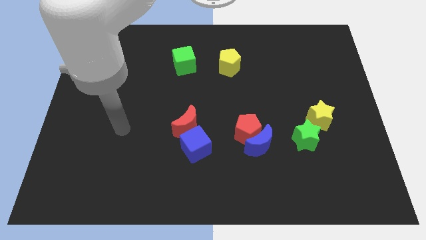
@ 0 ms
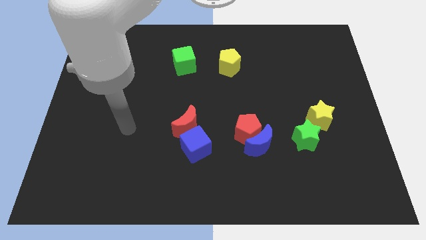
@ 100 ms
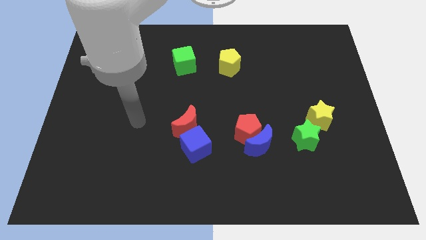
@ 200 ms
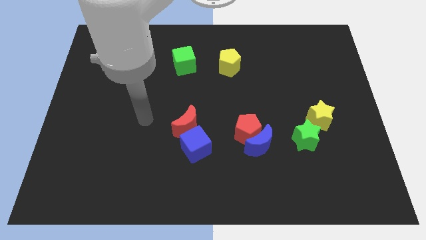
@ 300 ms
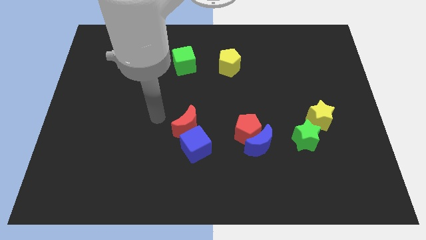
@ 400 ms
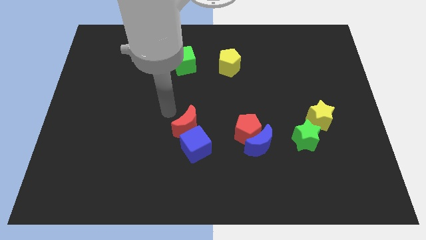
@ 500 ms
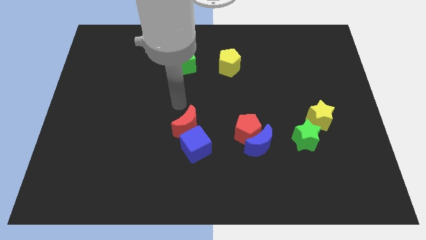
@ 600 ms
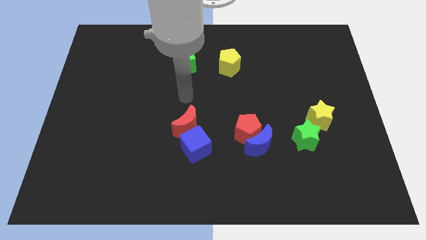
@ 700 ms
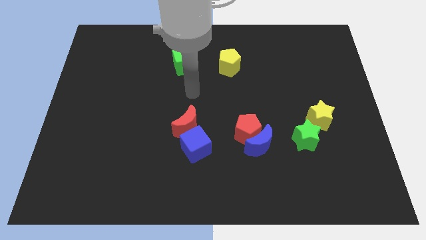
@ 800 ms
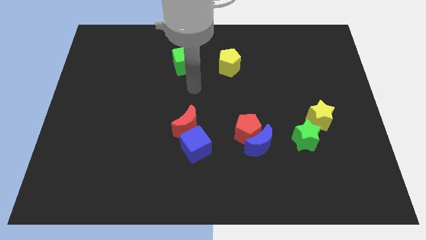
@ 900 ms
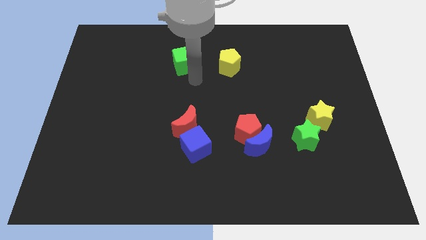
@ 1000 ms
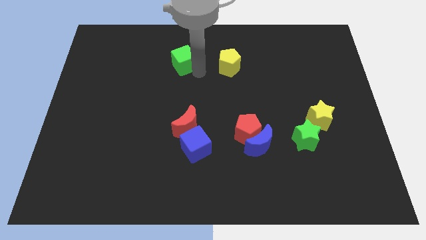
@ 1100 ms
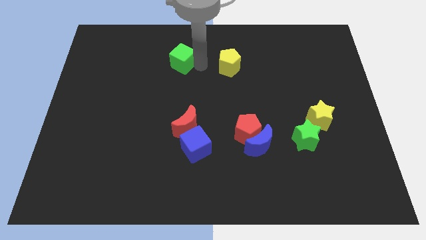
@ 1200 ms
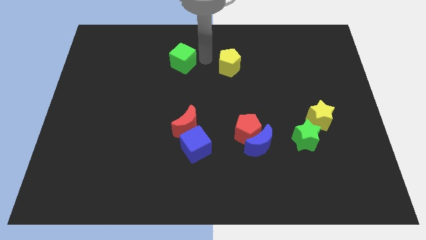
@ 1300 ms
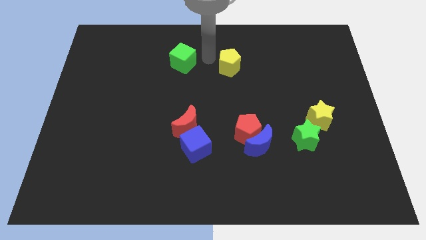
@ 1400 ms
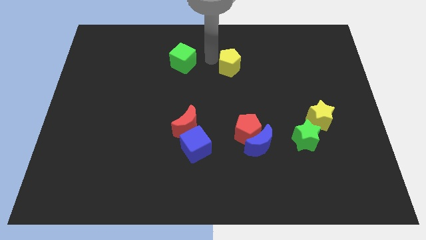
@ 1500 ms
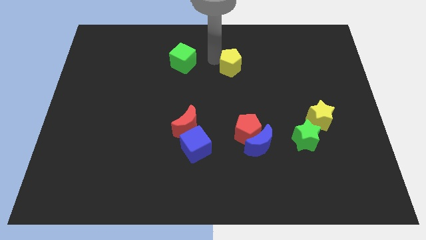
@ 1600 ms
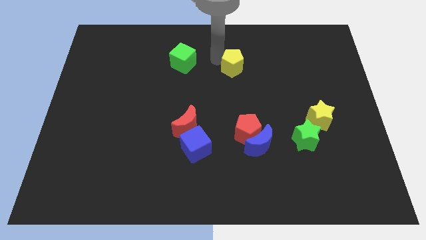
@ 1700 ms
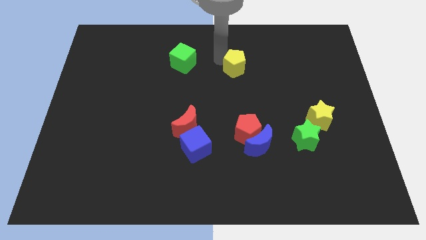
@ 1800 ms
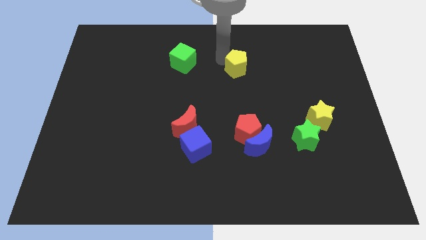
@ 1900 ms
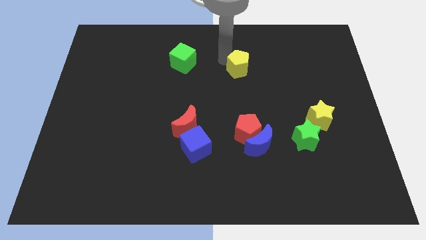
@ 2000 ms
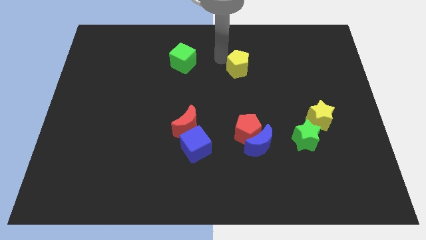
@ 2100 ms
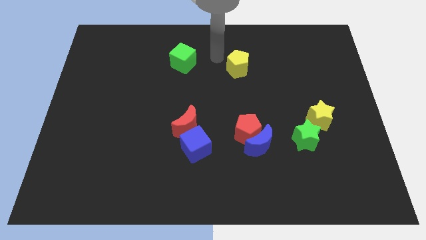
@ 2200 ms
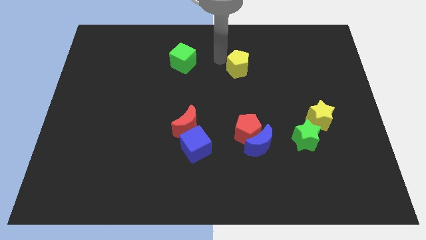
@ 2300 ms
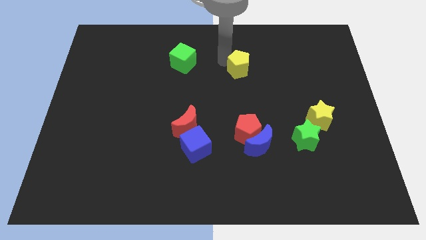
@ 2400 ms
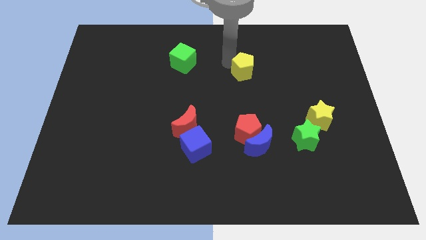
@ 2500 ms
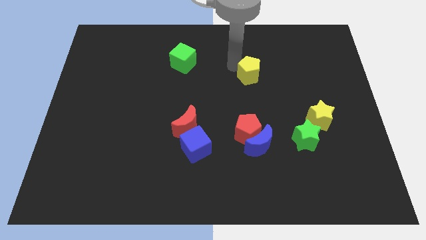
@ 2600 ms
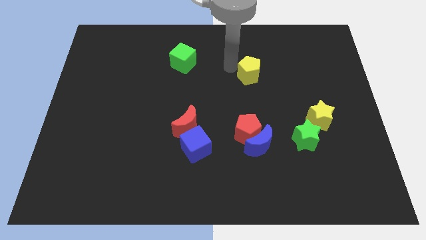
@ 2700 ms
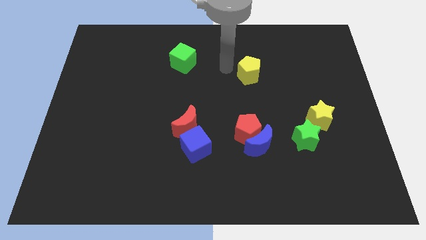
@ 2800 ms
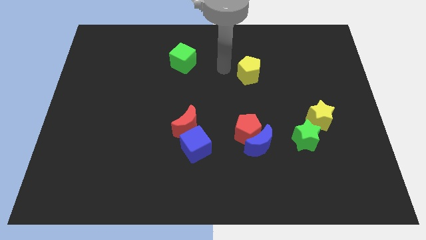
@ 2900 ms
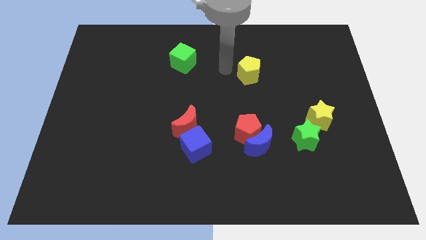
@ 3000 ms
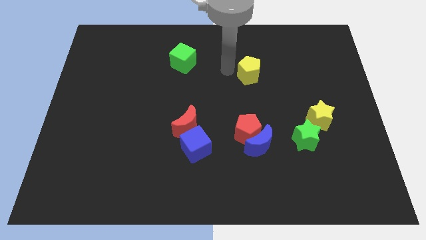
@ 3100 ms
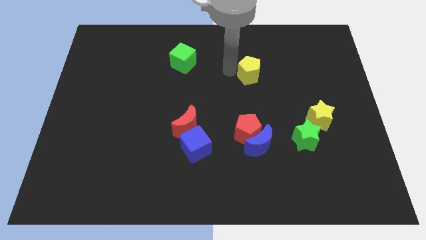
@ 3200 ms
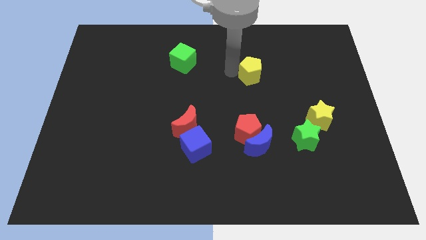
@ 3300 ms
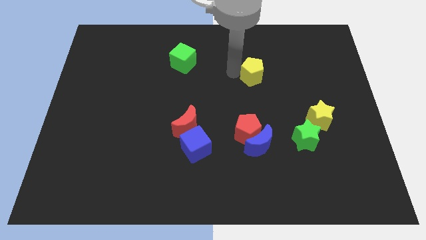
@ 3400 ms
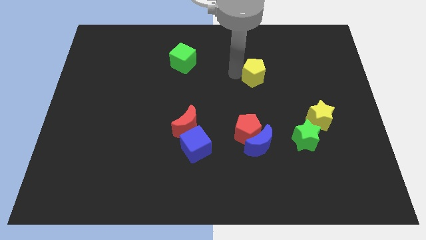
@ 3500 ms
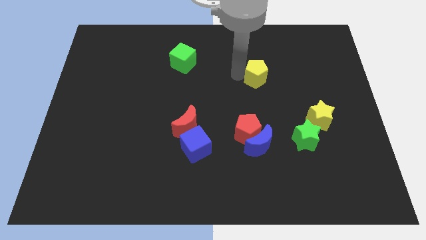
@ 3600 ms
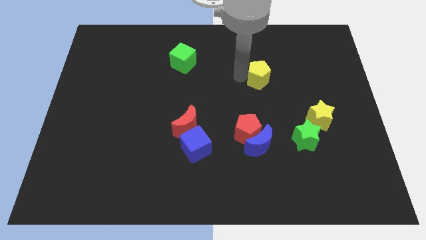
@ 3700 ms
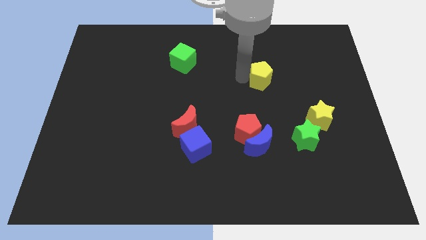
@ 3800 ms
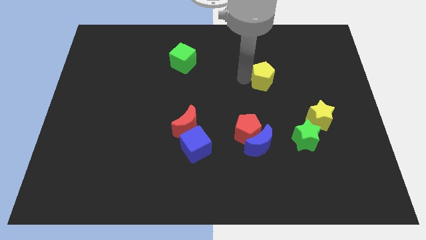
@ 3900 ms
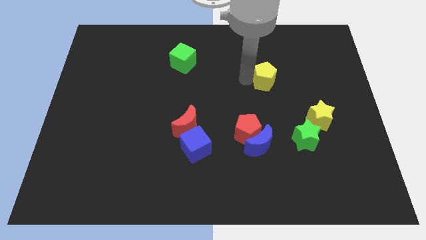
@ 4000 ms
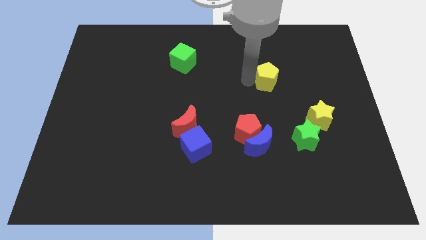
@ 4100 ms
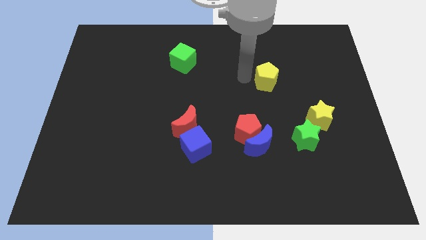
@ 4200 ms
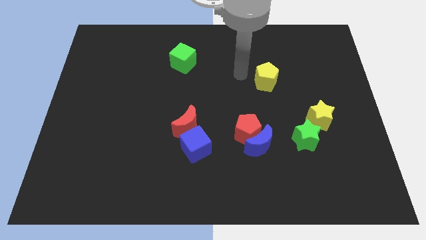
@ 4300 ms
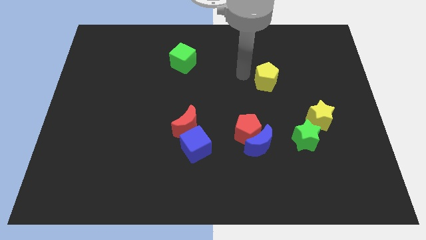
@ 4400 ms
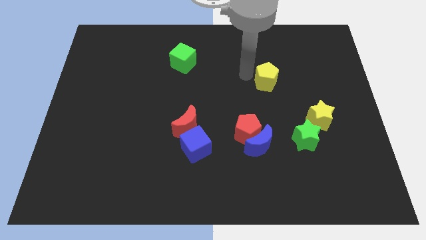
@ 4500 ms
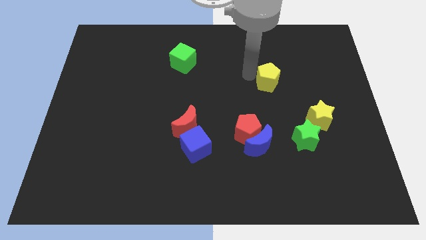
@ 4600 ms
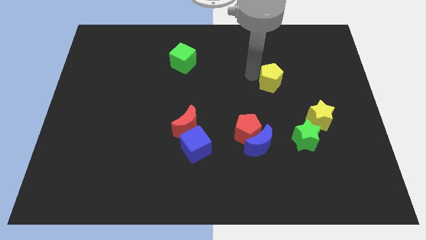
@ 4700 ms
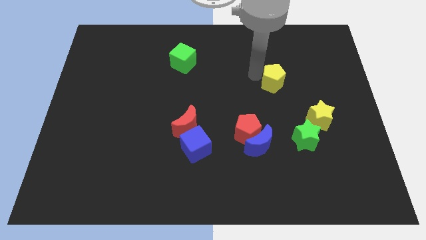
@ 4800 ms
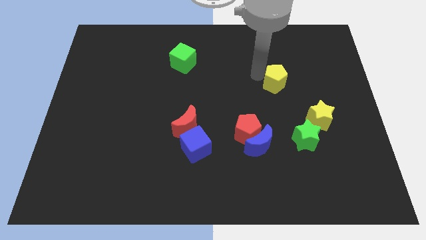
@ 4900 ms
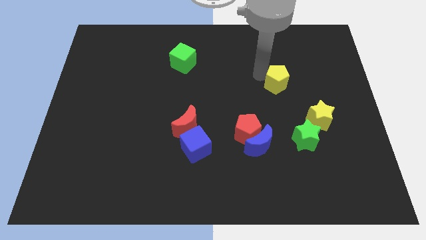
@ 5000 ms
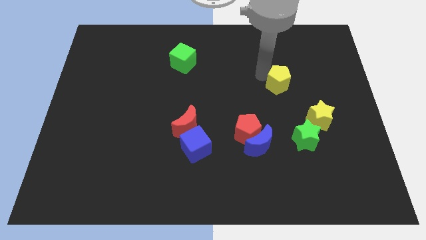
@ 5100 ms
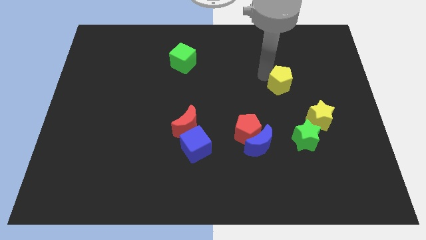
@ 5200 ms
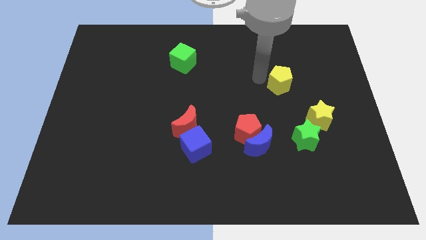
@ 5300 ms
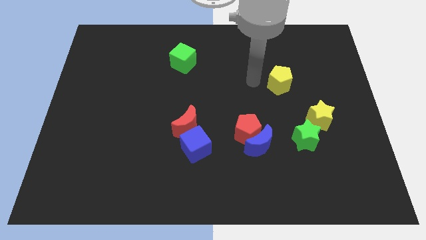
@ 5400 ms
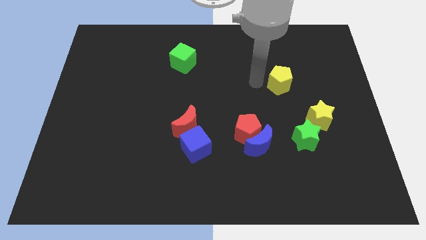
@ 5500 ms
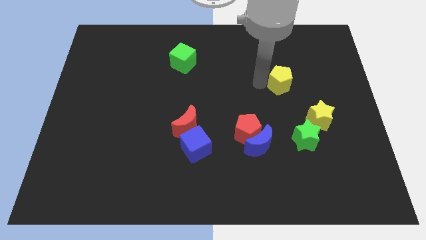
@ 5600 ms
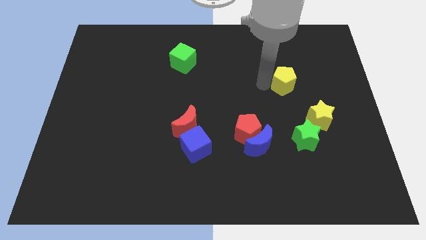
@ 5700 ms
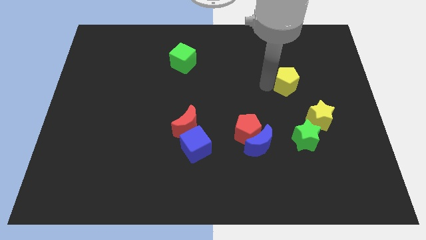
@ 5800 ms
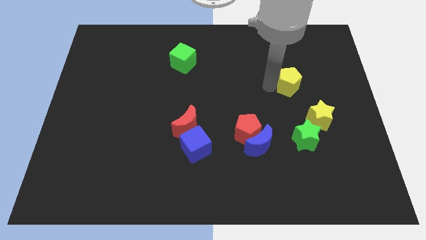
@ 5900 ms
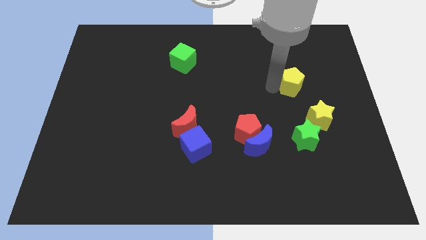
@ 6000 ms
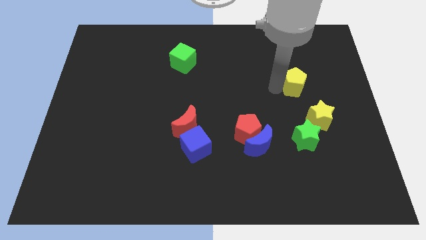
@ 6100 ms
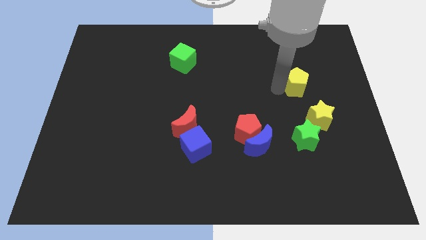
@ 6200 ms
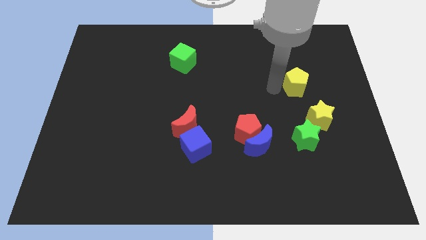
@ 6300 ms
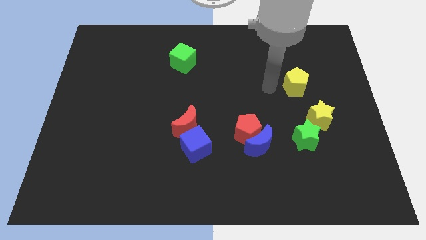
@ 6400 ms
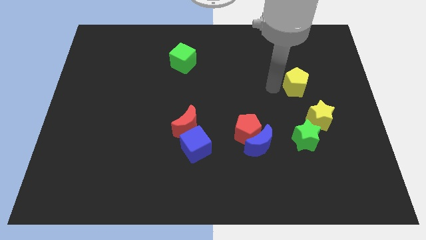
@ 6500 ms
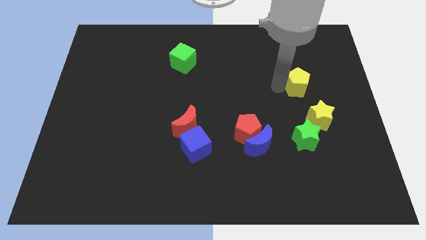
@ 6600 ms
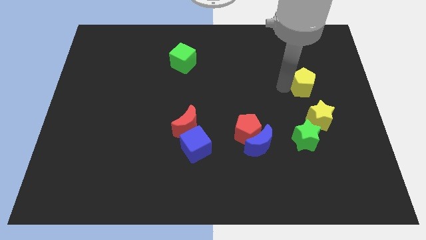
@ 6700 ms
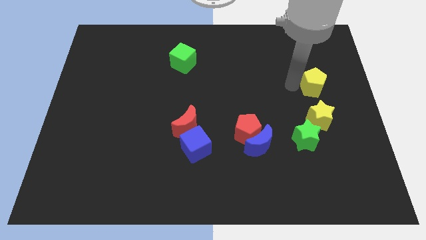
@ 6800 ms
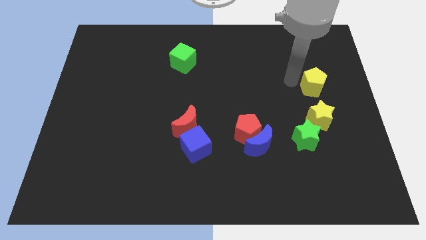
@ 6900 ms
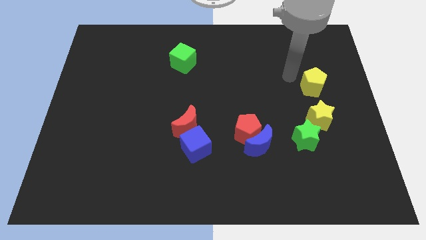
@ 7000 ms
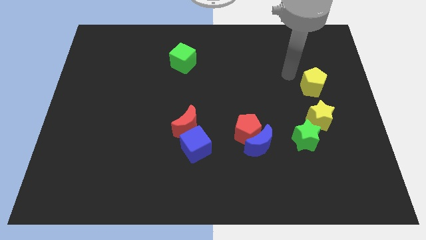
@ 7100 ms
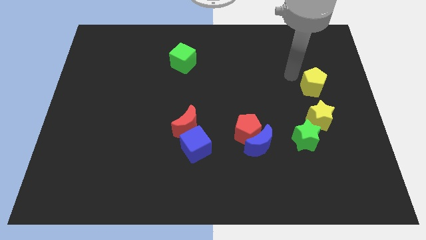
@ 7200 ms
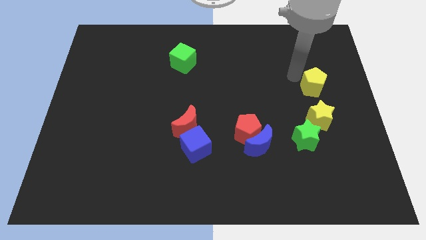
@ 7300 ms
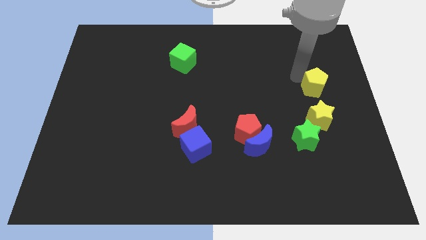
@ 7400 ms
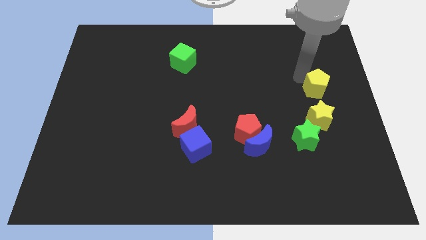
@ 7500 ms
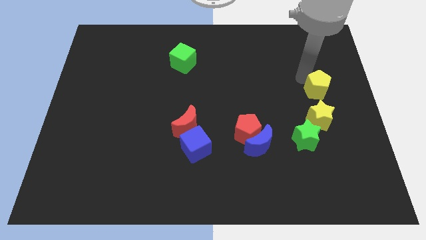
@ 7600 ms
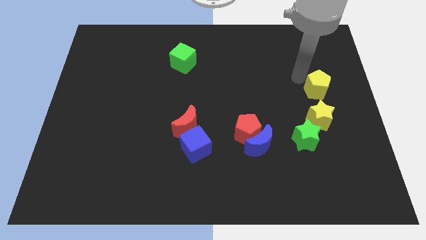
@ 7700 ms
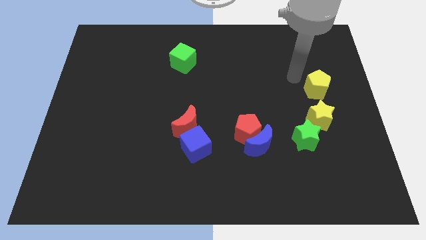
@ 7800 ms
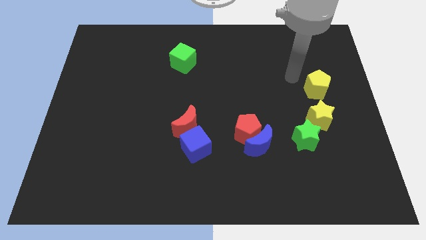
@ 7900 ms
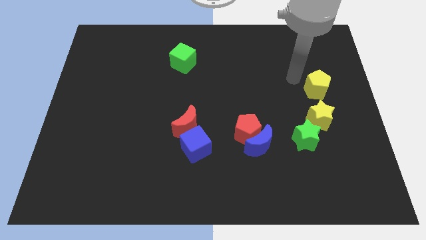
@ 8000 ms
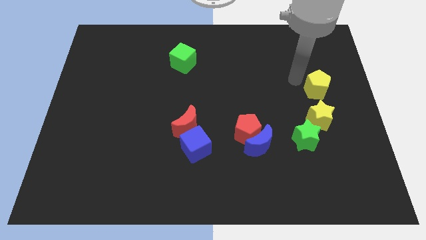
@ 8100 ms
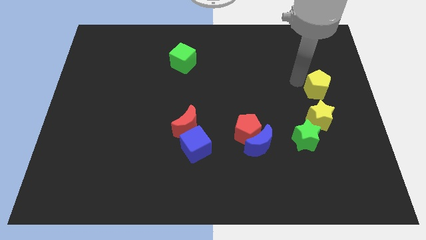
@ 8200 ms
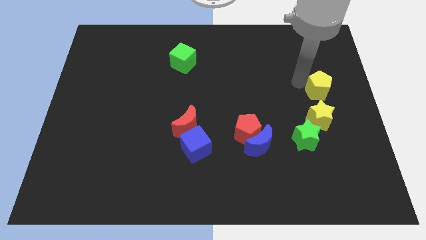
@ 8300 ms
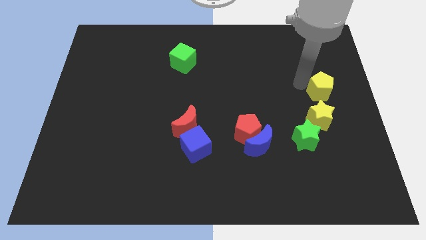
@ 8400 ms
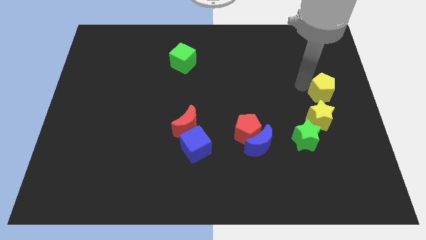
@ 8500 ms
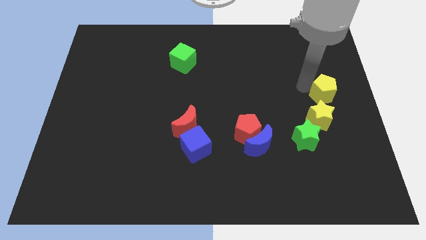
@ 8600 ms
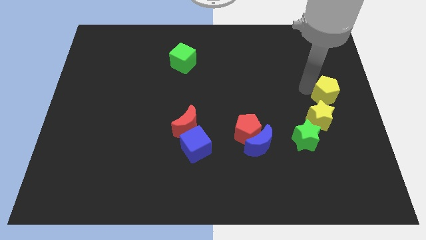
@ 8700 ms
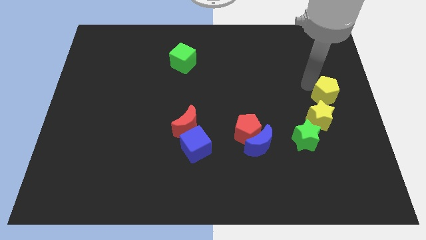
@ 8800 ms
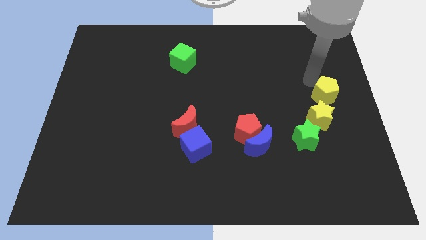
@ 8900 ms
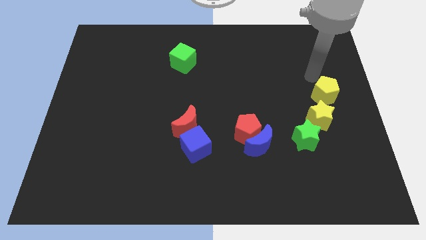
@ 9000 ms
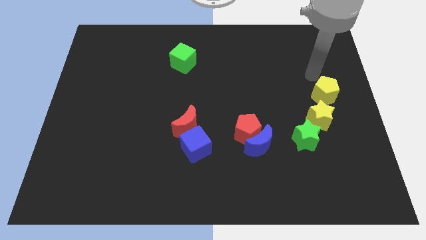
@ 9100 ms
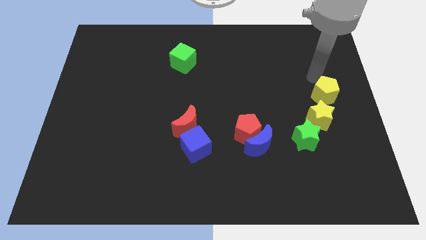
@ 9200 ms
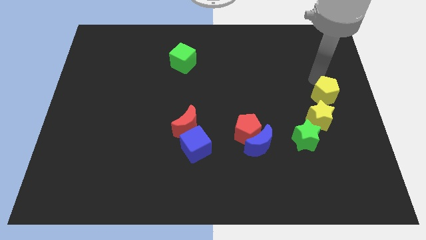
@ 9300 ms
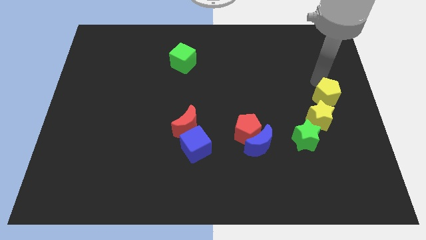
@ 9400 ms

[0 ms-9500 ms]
push the yellow pentagon down and then to the right
